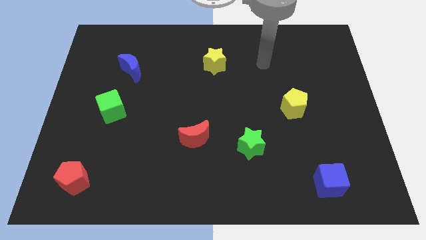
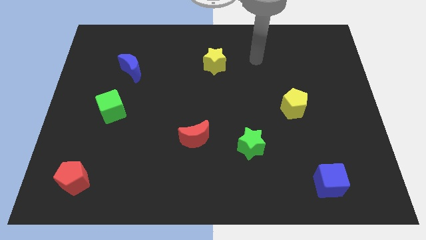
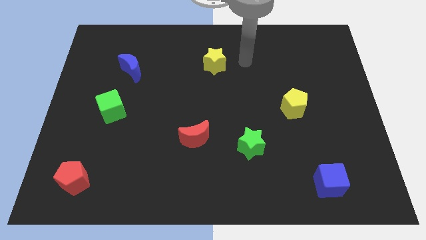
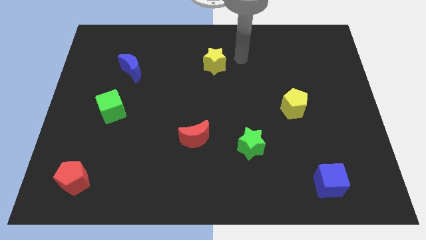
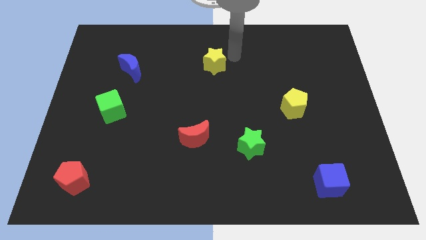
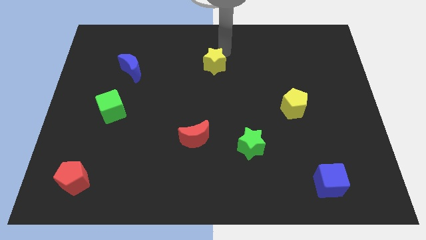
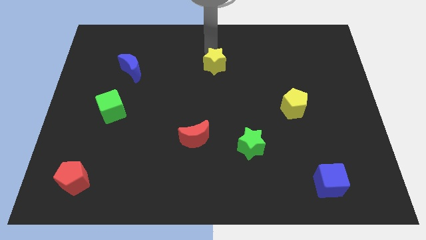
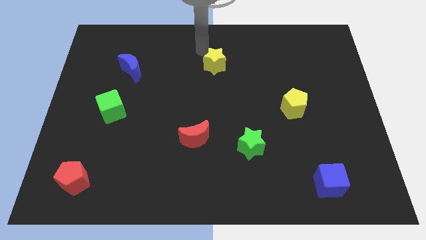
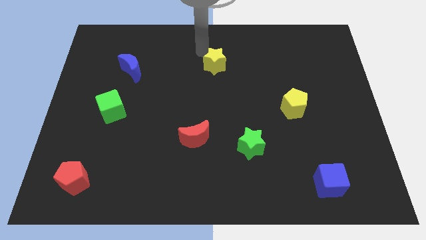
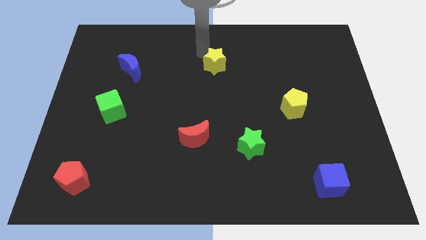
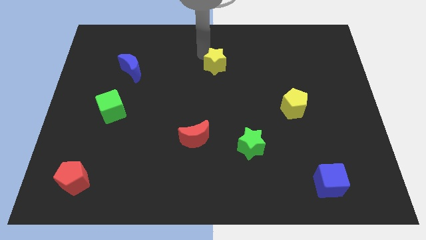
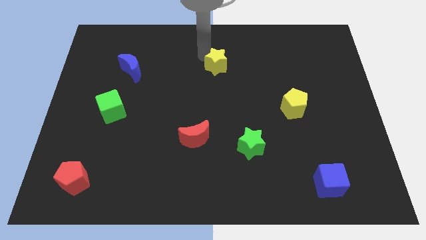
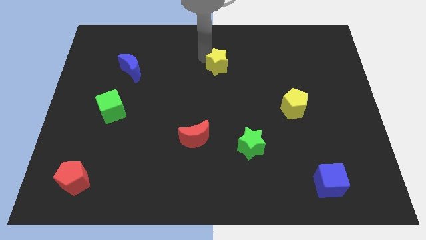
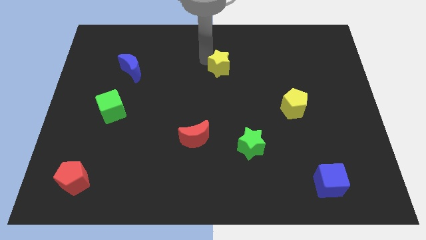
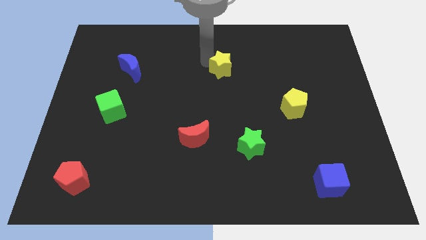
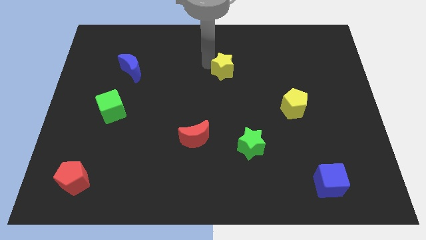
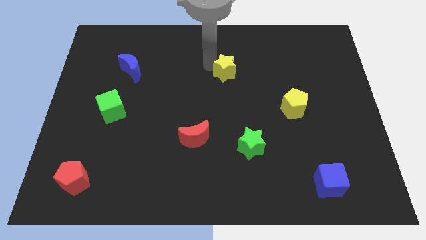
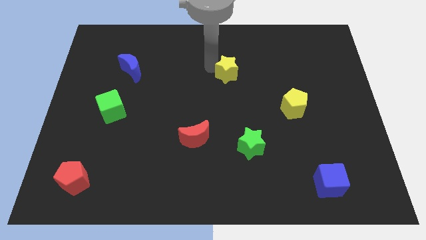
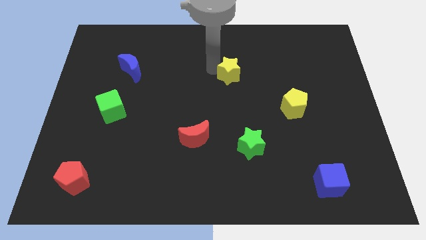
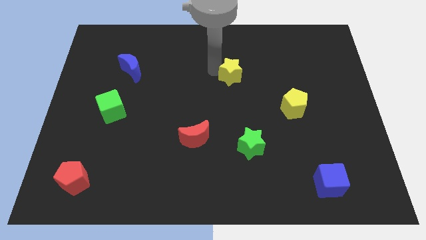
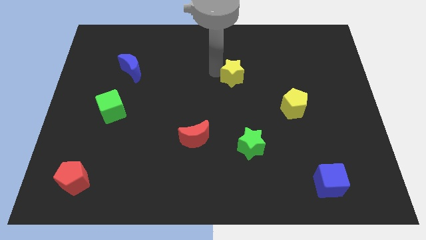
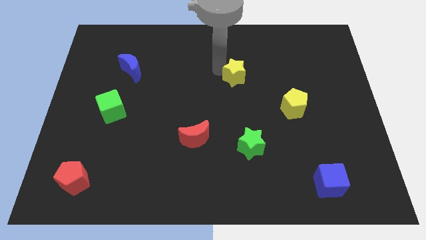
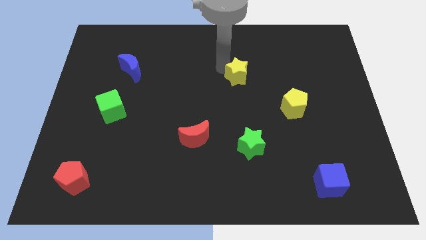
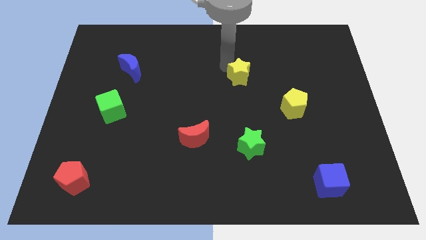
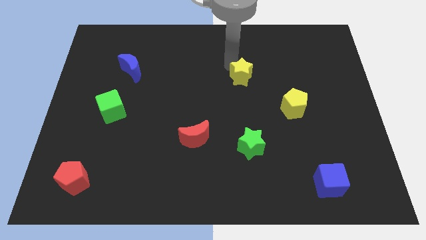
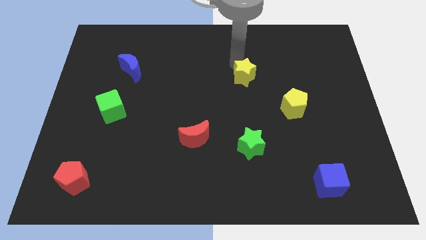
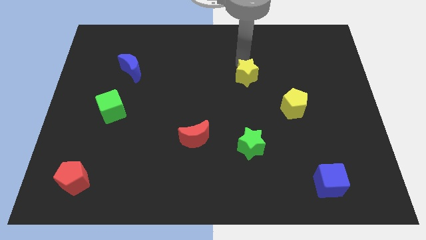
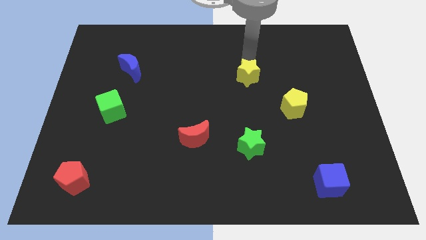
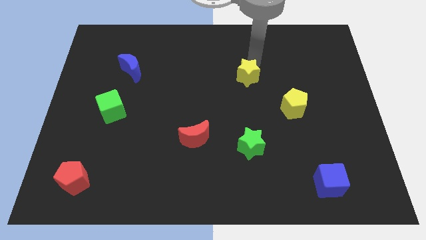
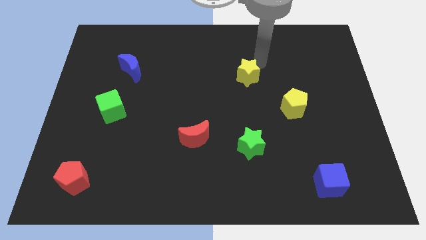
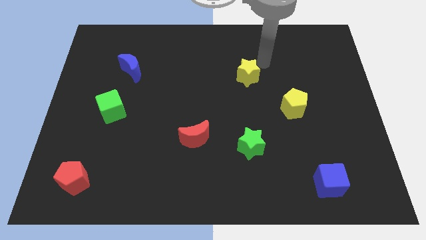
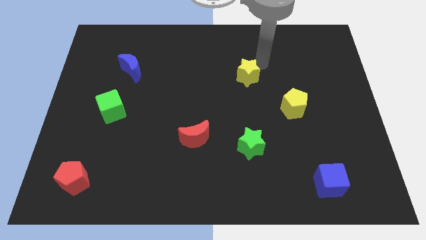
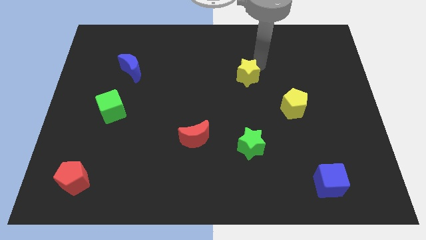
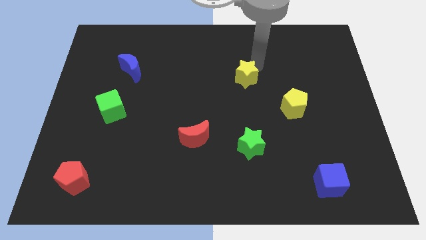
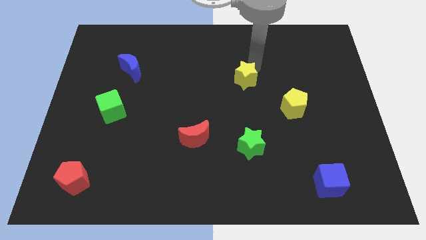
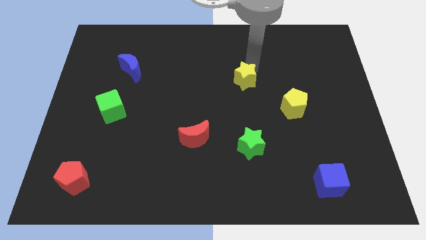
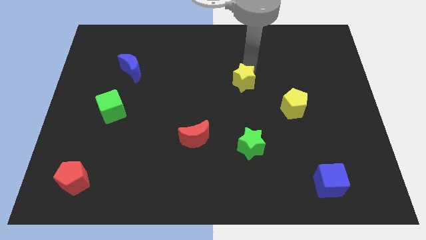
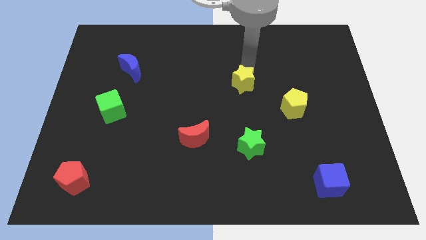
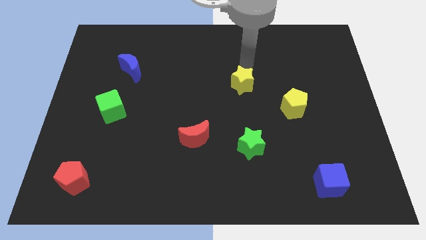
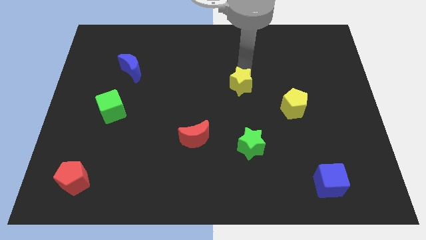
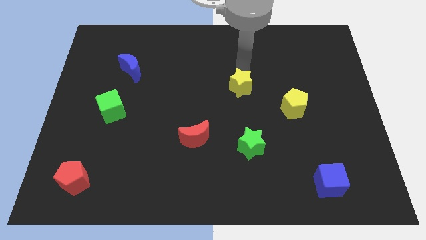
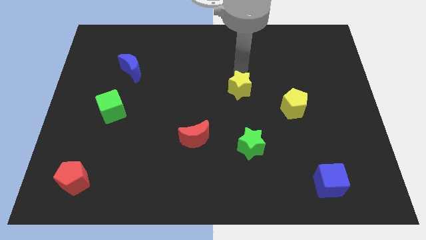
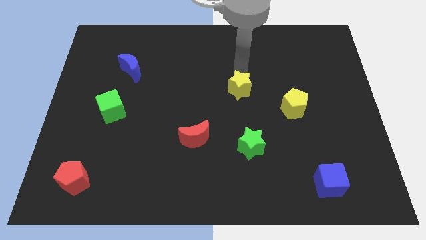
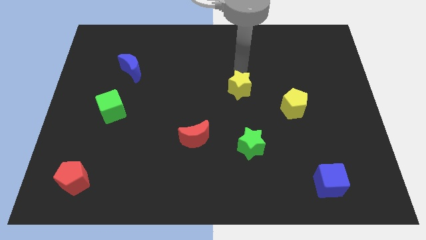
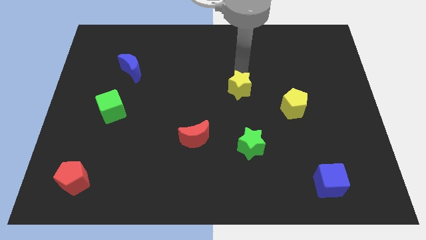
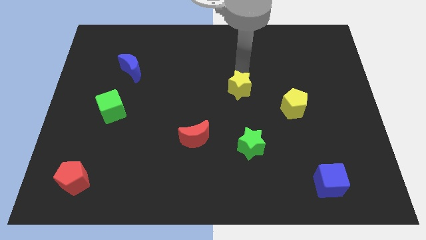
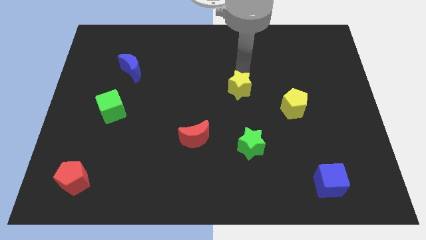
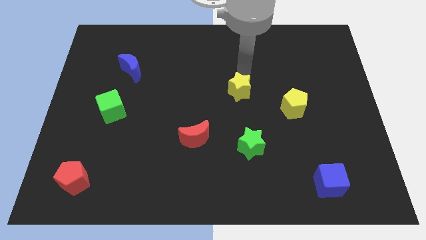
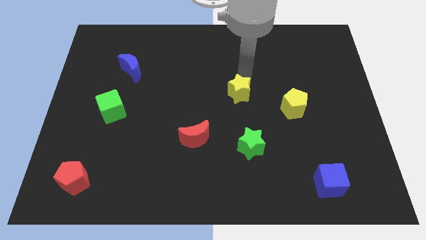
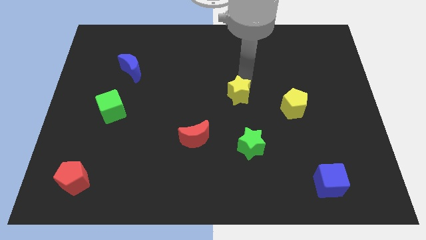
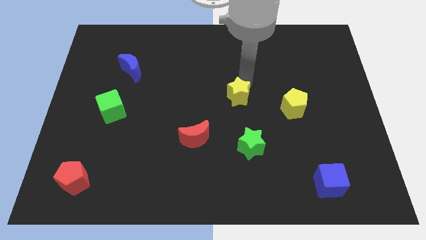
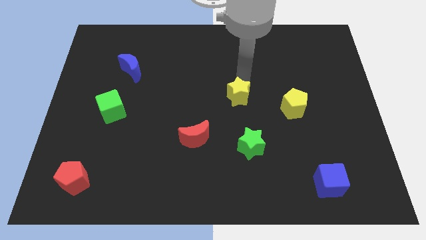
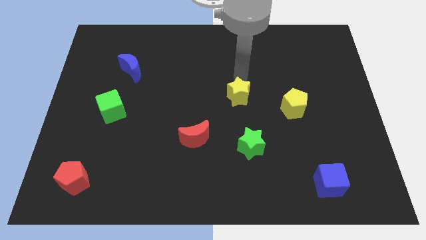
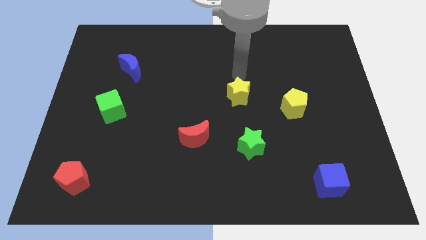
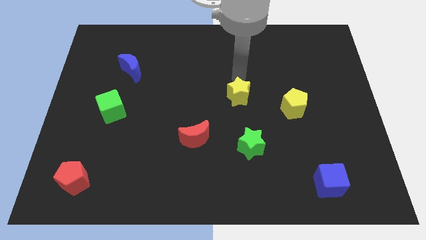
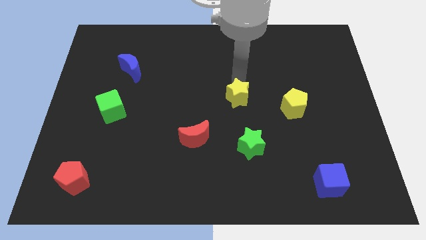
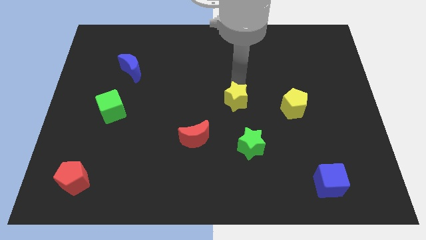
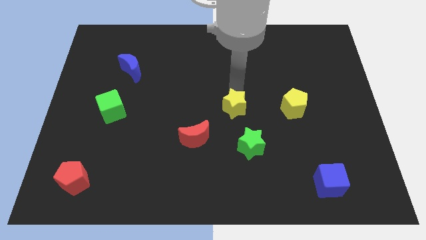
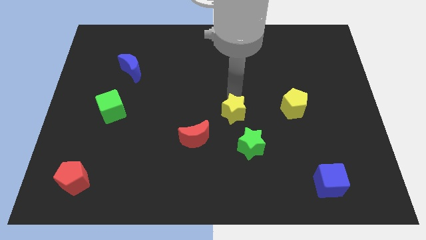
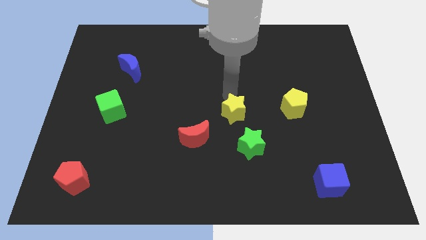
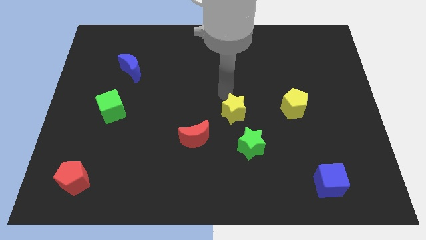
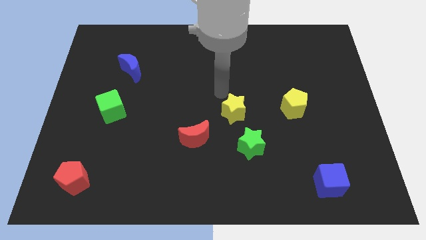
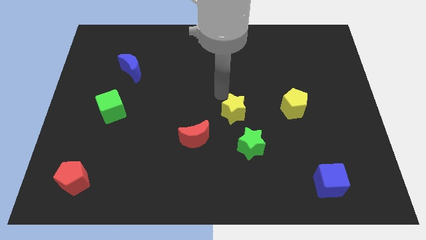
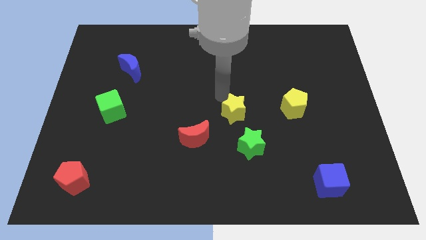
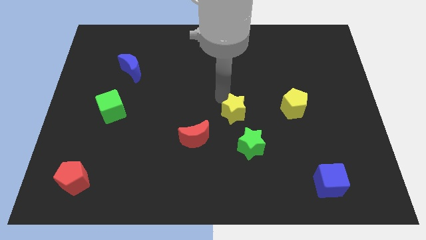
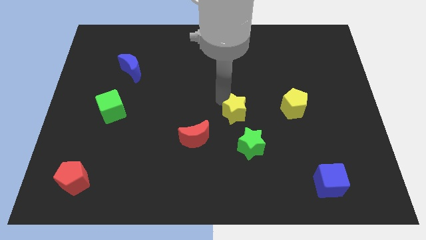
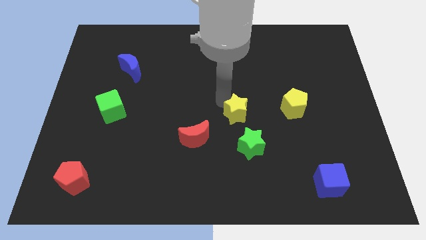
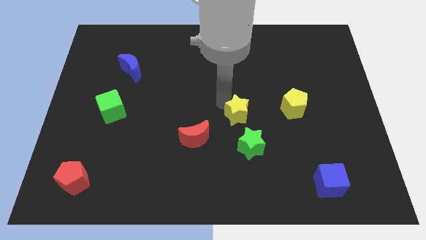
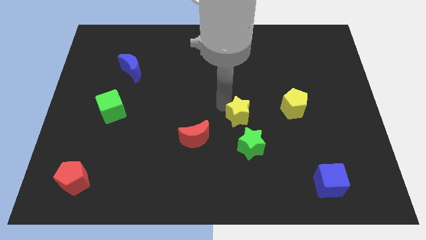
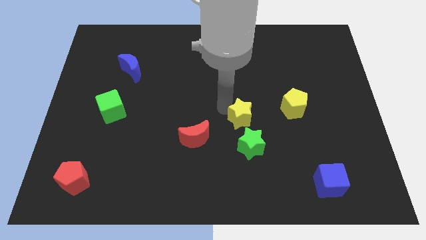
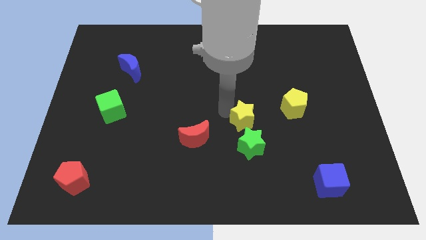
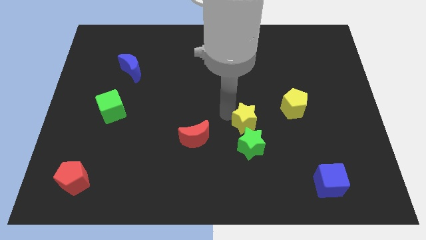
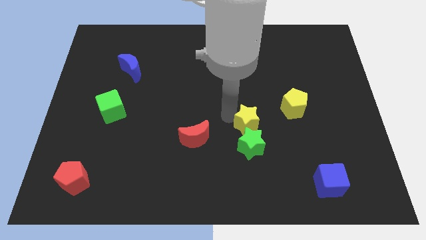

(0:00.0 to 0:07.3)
move the yellow star next to the green star
